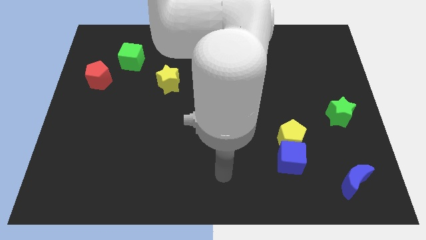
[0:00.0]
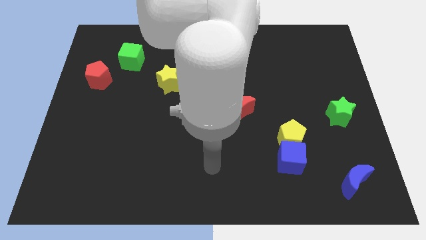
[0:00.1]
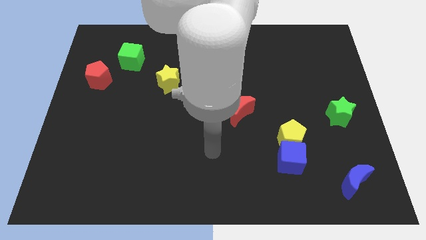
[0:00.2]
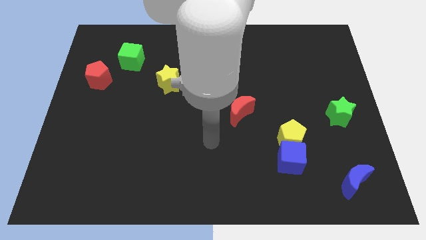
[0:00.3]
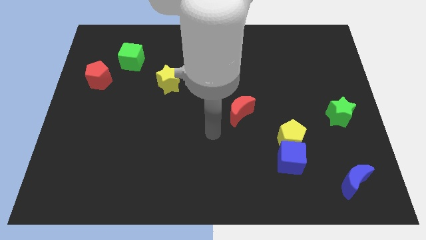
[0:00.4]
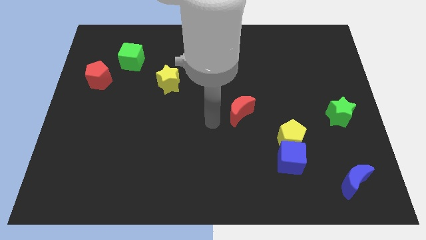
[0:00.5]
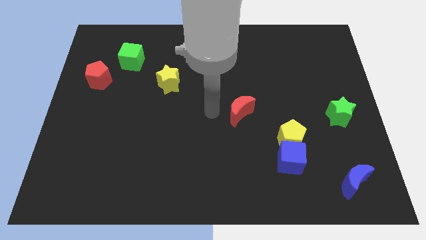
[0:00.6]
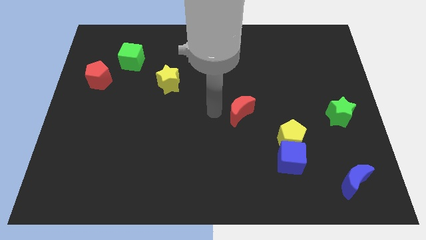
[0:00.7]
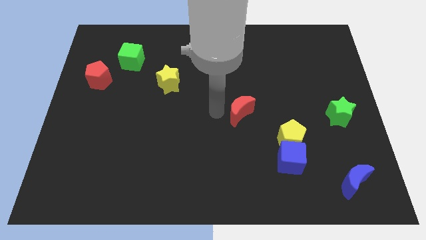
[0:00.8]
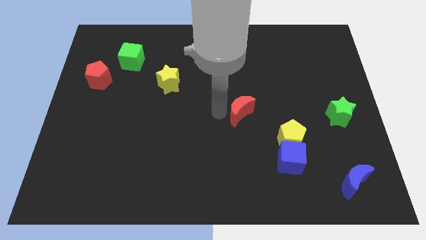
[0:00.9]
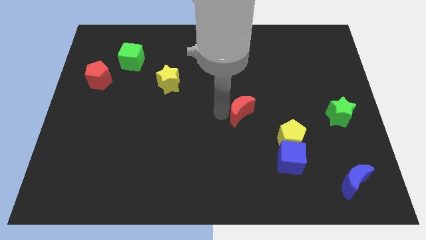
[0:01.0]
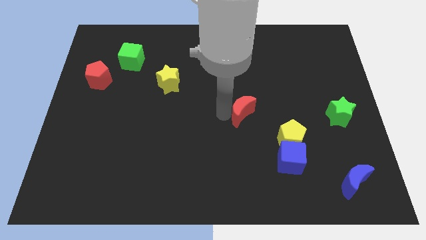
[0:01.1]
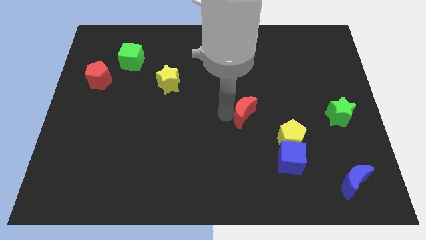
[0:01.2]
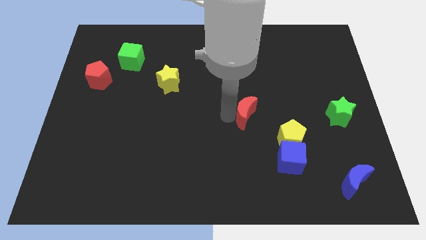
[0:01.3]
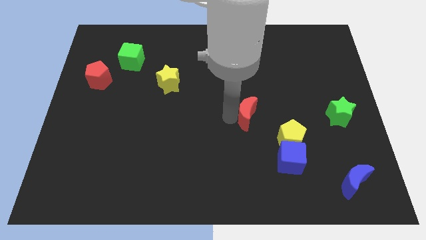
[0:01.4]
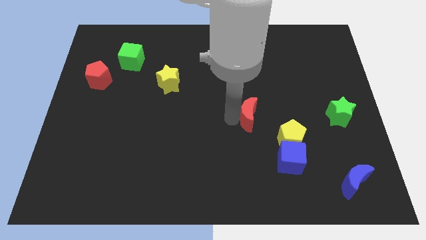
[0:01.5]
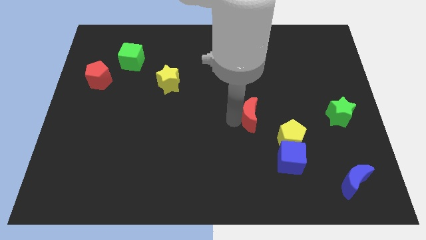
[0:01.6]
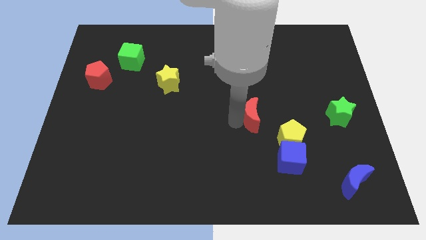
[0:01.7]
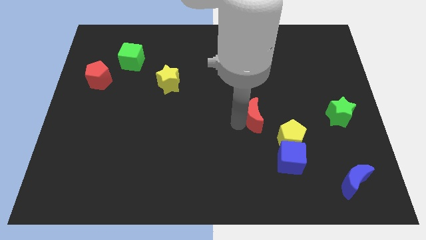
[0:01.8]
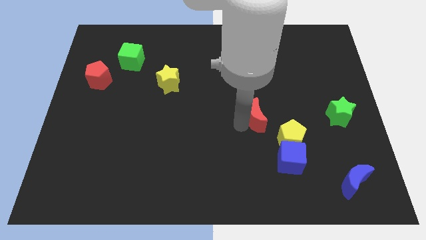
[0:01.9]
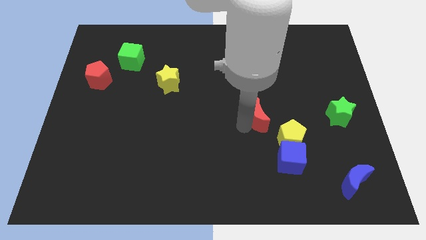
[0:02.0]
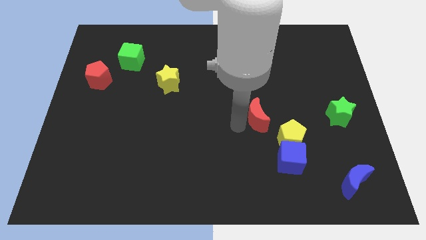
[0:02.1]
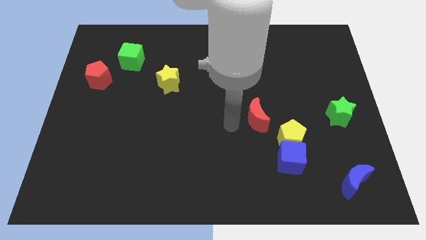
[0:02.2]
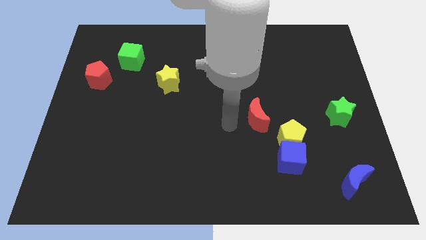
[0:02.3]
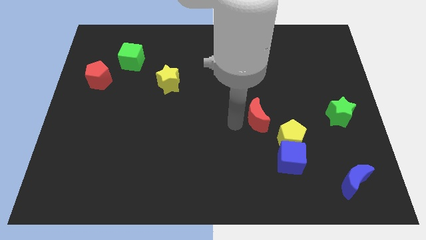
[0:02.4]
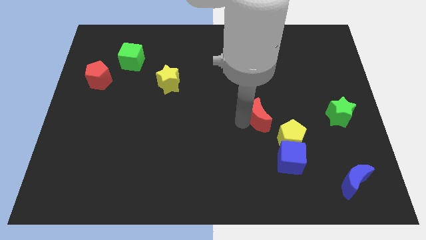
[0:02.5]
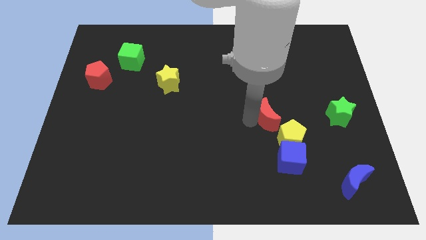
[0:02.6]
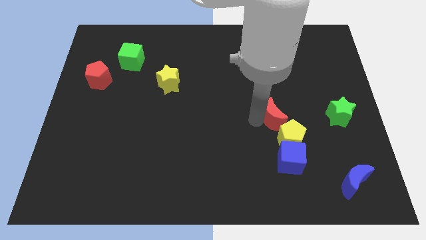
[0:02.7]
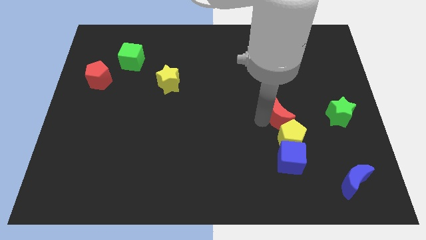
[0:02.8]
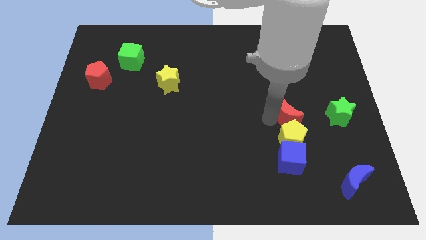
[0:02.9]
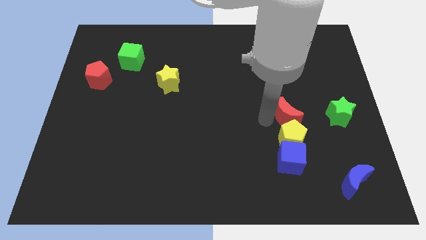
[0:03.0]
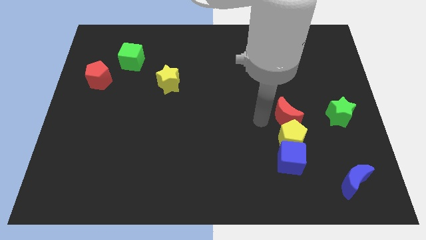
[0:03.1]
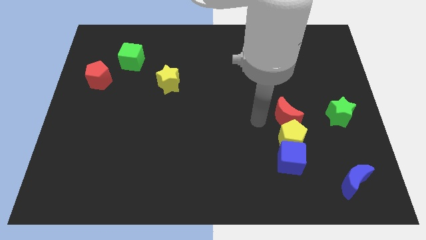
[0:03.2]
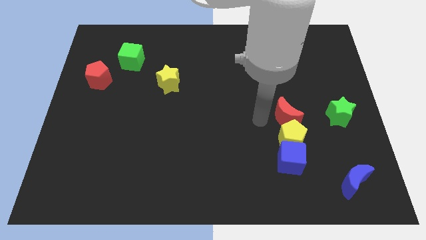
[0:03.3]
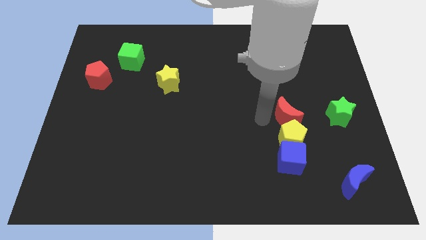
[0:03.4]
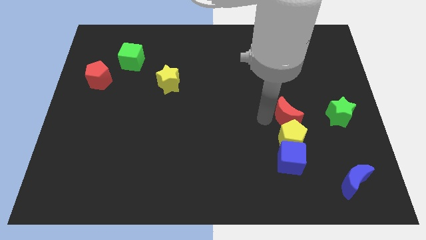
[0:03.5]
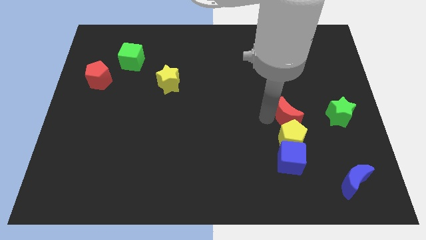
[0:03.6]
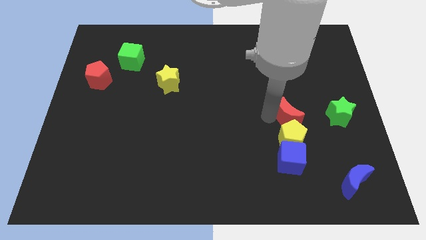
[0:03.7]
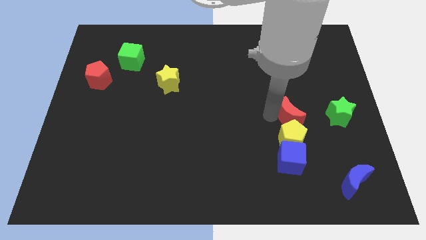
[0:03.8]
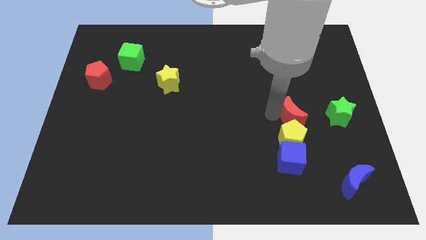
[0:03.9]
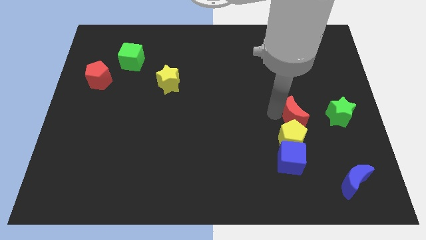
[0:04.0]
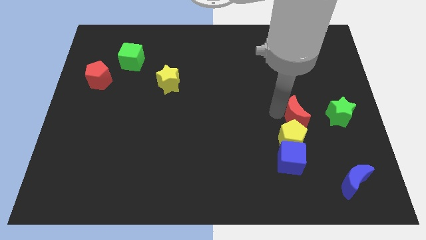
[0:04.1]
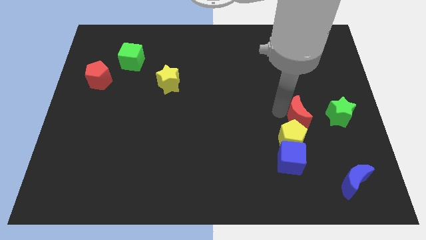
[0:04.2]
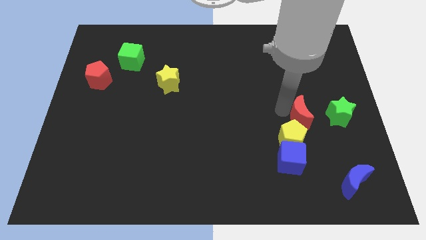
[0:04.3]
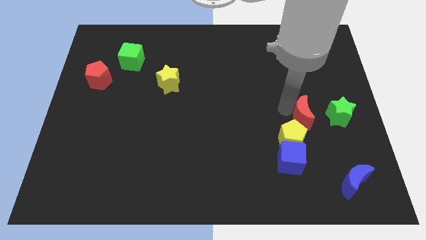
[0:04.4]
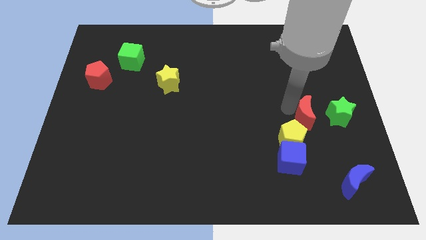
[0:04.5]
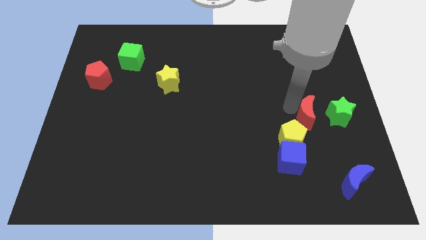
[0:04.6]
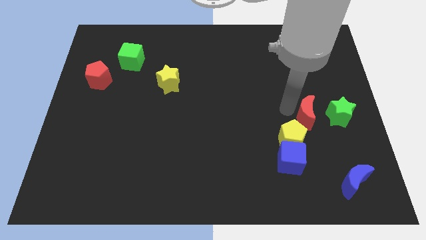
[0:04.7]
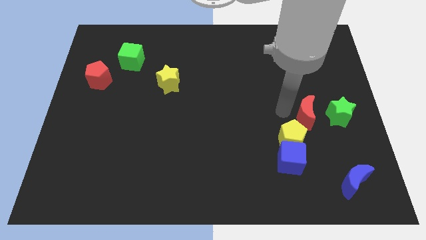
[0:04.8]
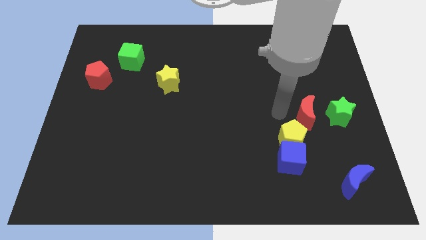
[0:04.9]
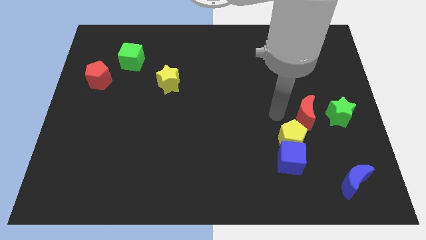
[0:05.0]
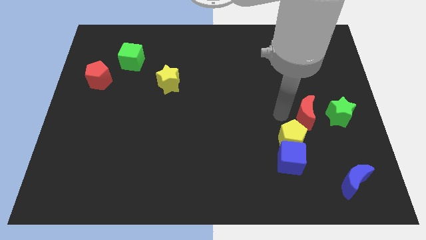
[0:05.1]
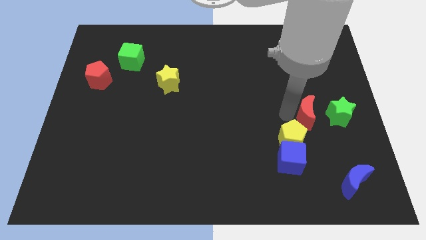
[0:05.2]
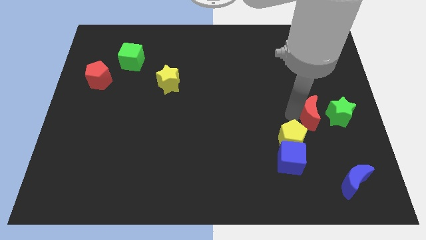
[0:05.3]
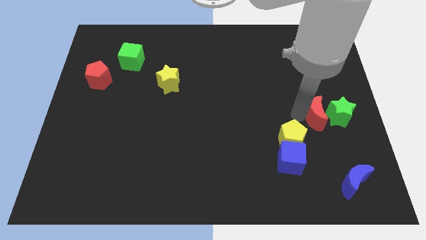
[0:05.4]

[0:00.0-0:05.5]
put the red moon towards the green star

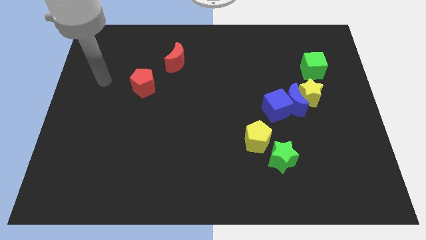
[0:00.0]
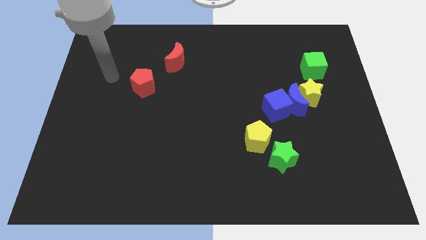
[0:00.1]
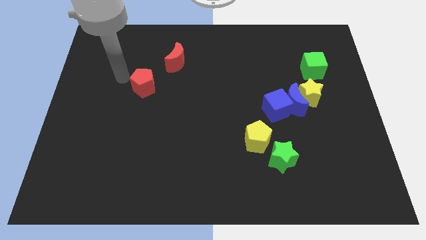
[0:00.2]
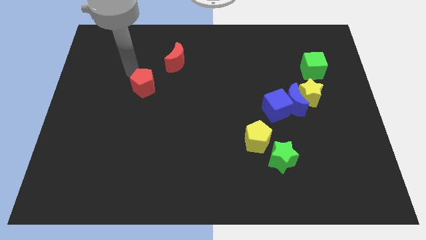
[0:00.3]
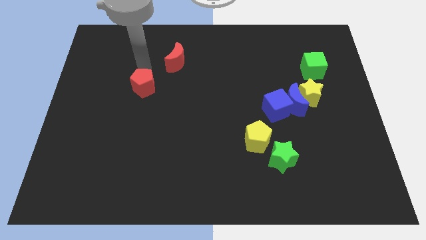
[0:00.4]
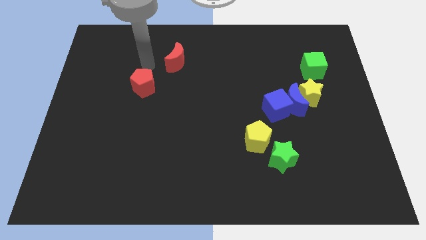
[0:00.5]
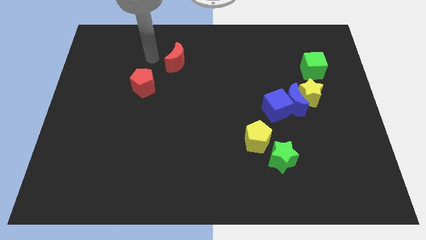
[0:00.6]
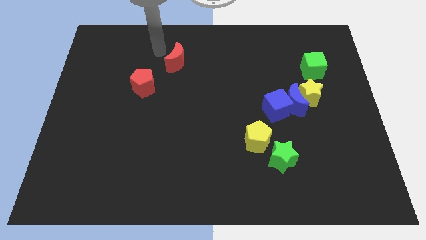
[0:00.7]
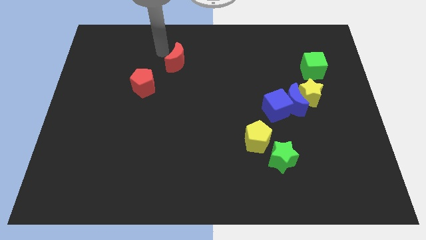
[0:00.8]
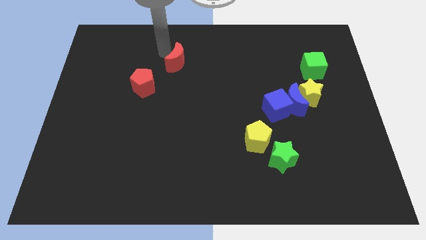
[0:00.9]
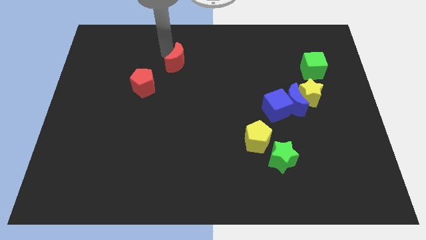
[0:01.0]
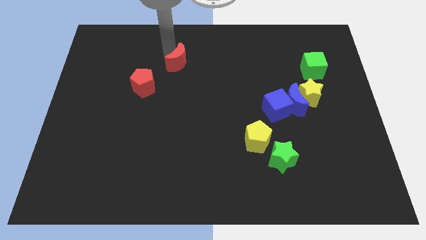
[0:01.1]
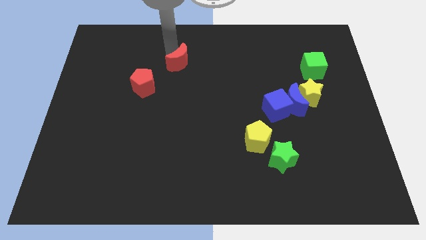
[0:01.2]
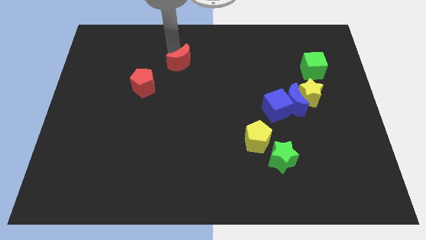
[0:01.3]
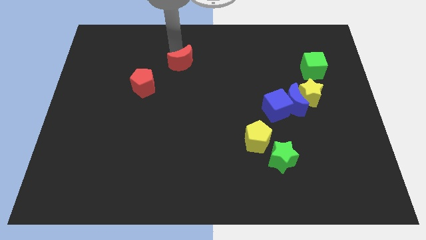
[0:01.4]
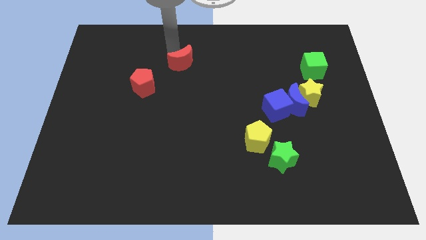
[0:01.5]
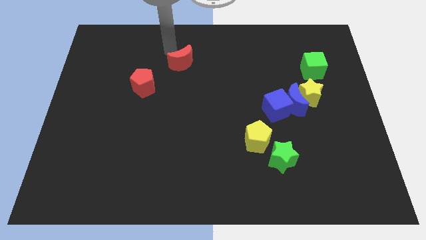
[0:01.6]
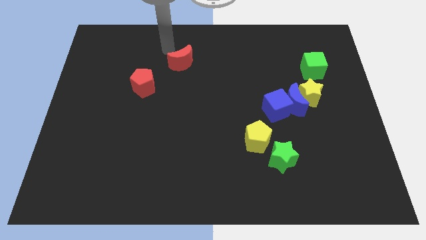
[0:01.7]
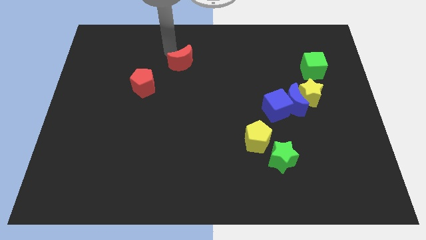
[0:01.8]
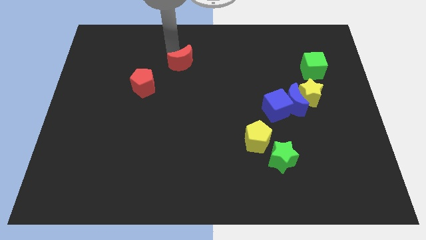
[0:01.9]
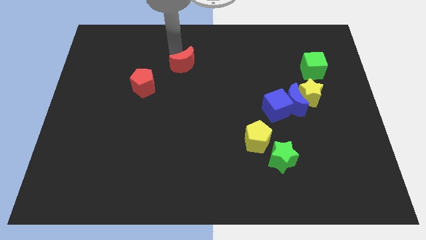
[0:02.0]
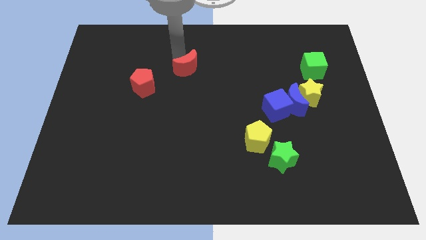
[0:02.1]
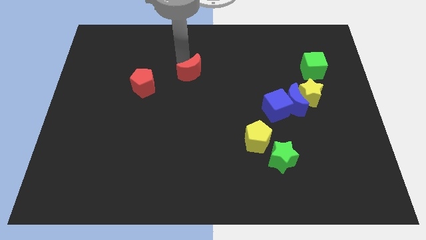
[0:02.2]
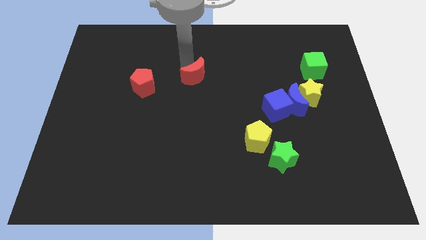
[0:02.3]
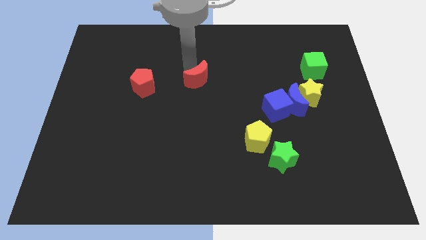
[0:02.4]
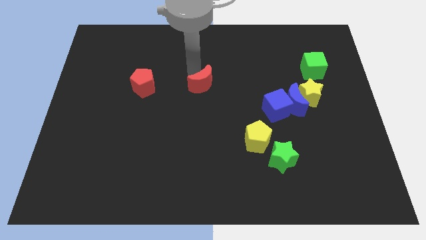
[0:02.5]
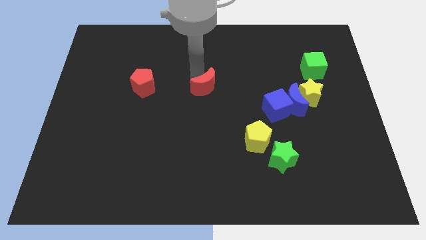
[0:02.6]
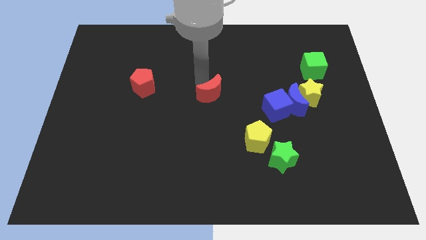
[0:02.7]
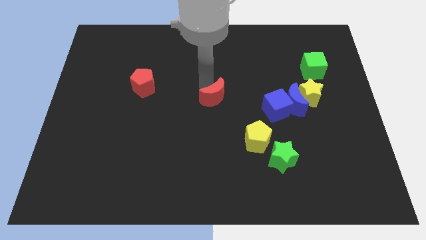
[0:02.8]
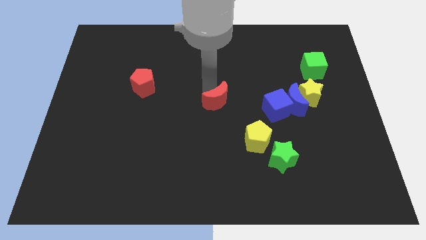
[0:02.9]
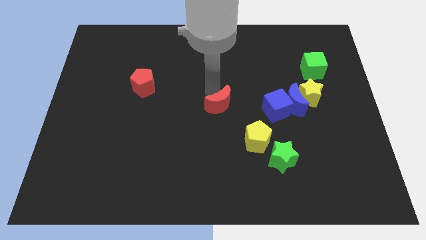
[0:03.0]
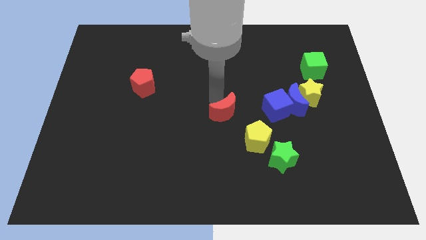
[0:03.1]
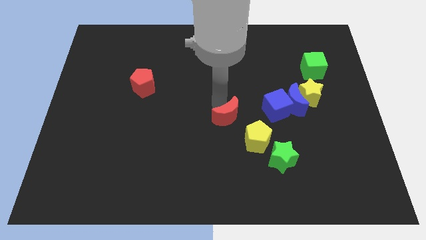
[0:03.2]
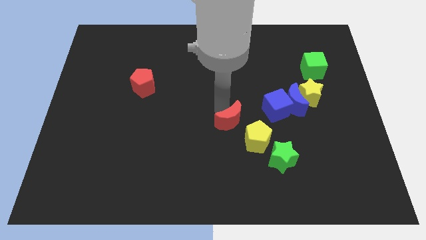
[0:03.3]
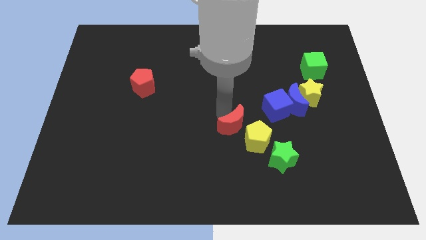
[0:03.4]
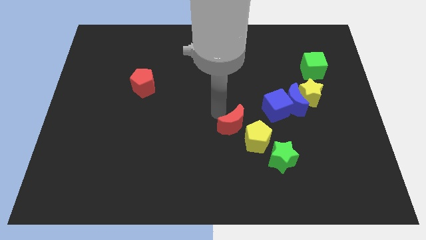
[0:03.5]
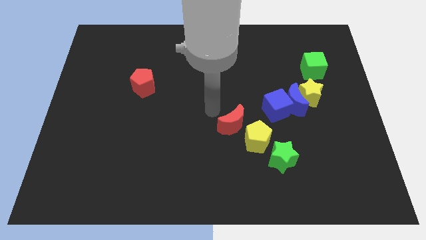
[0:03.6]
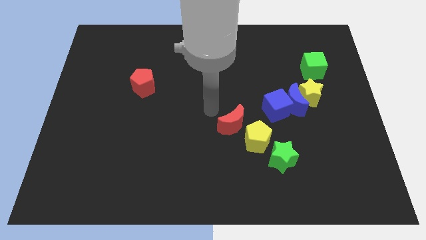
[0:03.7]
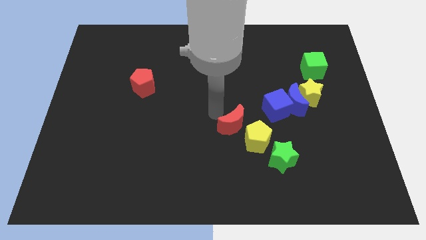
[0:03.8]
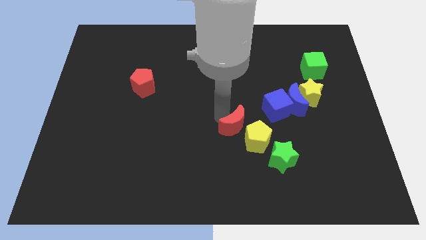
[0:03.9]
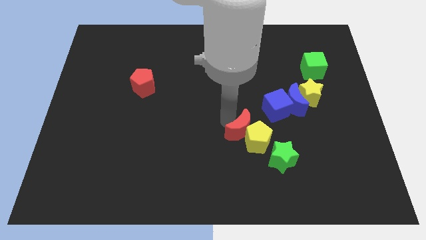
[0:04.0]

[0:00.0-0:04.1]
push the red moon close to the yellow pentagon
